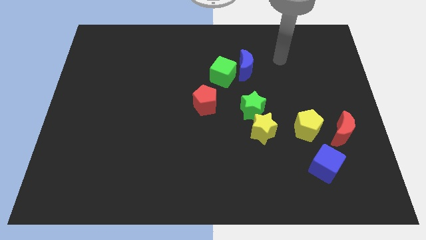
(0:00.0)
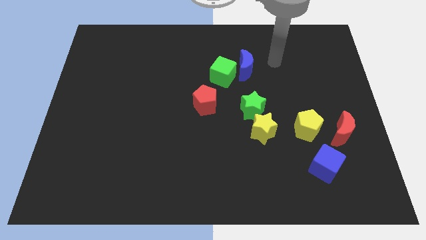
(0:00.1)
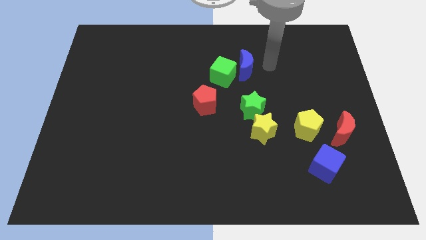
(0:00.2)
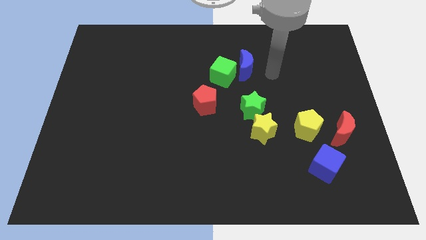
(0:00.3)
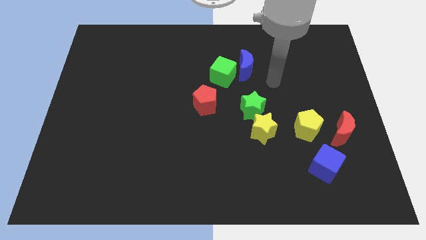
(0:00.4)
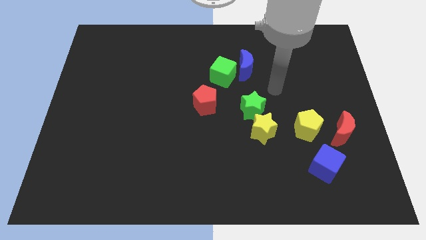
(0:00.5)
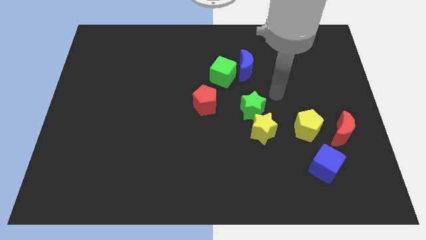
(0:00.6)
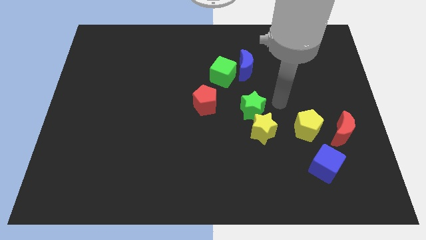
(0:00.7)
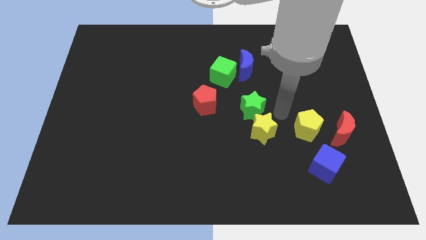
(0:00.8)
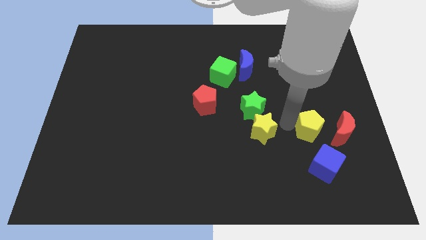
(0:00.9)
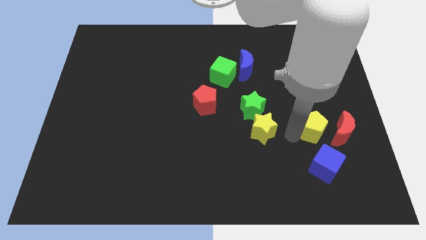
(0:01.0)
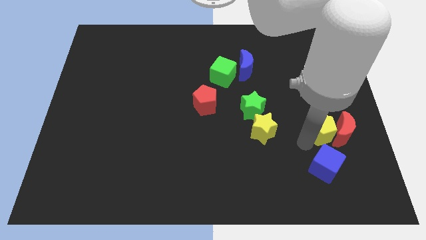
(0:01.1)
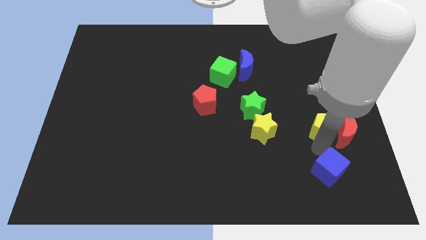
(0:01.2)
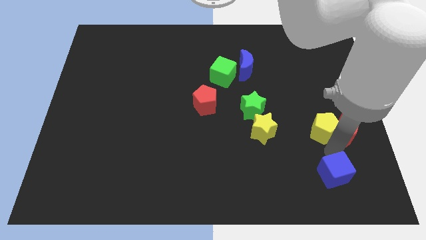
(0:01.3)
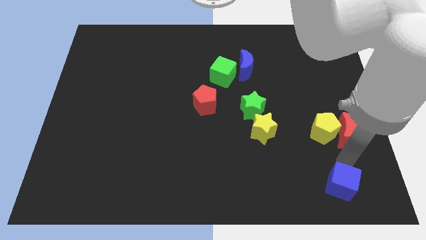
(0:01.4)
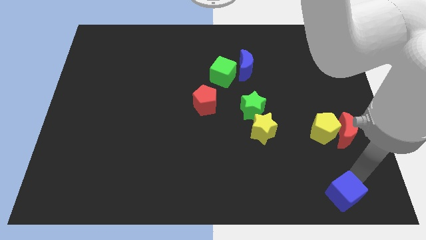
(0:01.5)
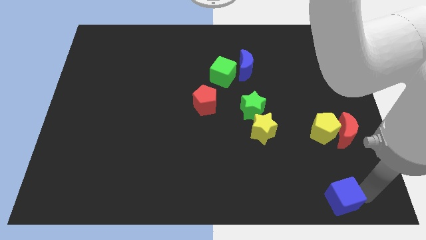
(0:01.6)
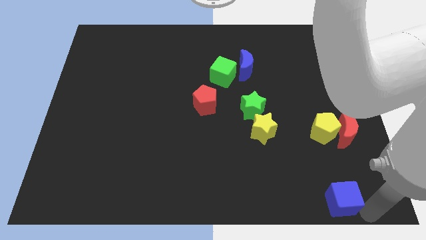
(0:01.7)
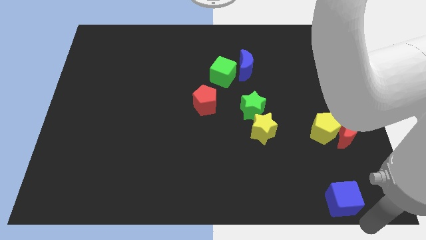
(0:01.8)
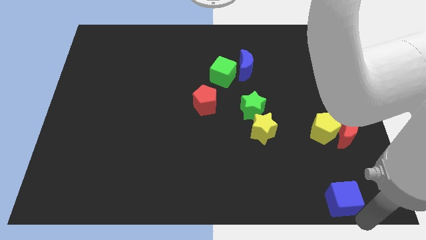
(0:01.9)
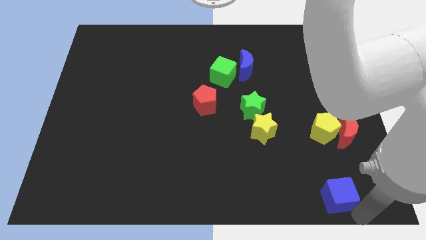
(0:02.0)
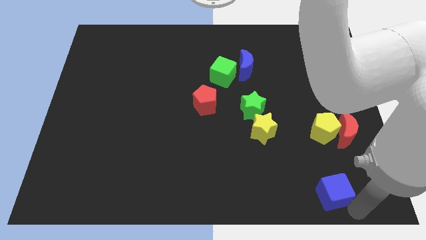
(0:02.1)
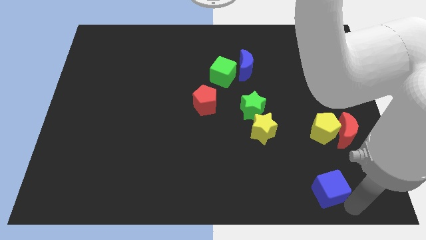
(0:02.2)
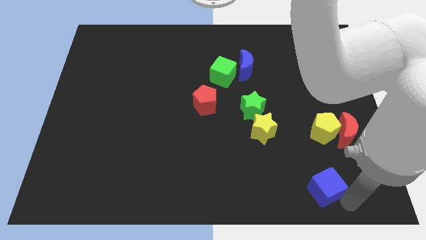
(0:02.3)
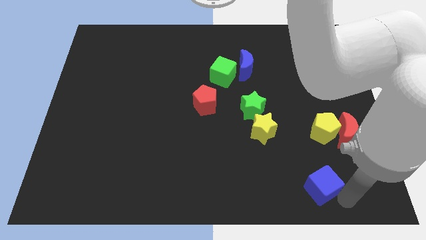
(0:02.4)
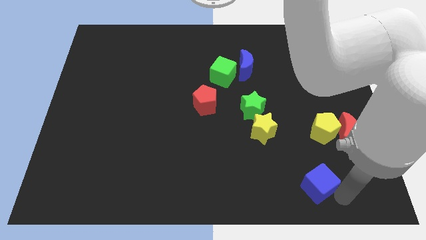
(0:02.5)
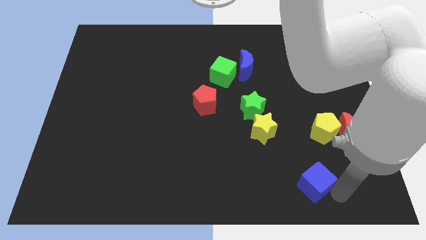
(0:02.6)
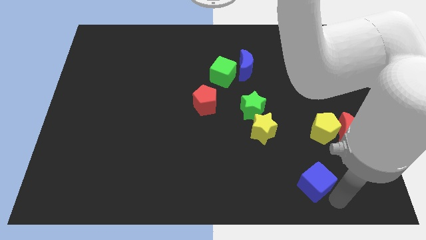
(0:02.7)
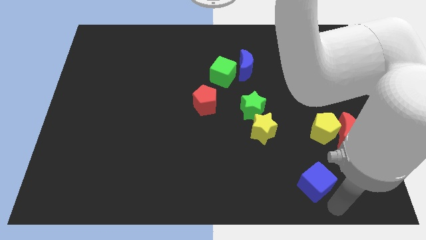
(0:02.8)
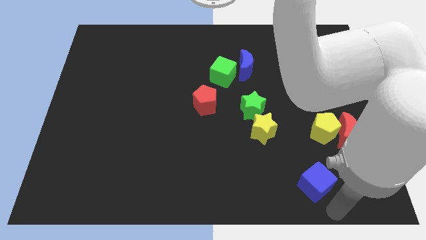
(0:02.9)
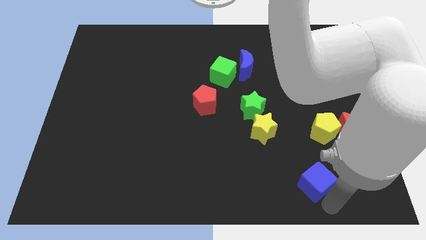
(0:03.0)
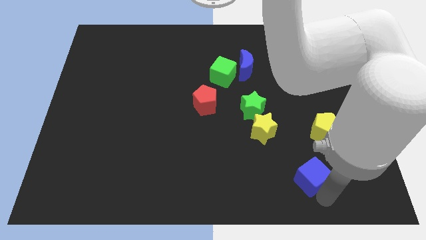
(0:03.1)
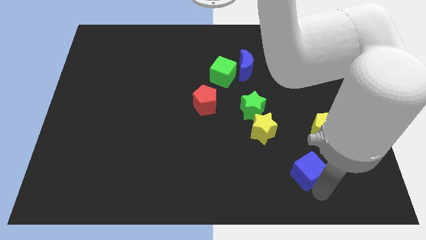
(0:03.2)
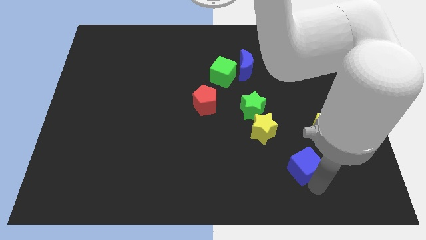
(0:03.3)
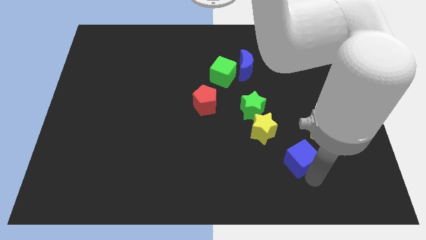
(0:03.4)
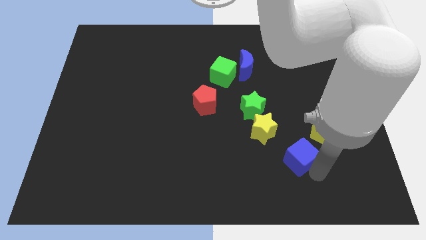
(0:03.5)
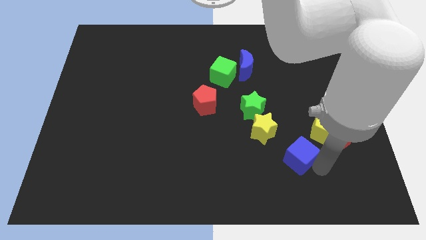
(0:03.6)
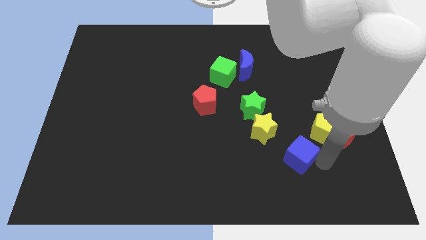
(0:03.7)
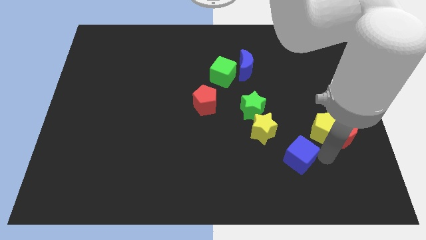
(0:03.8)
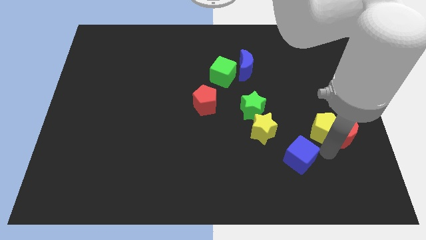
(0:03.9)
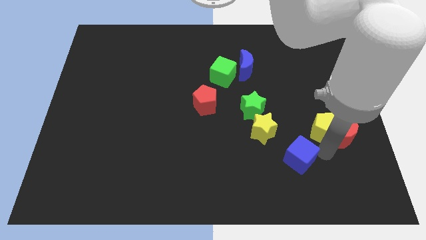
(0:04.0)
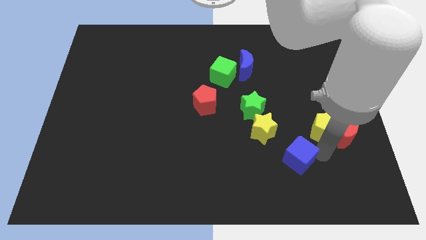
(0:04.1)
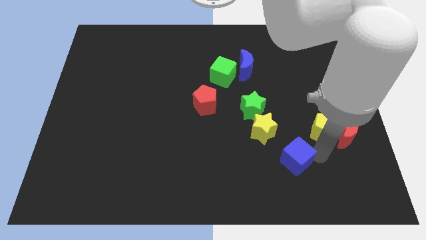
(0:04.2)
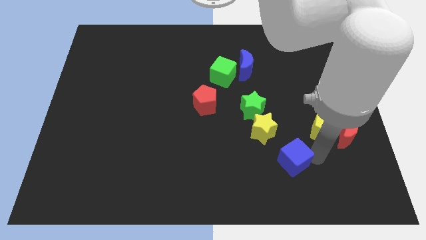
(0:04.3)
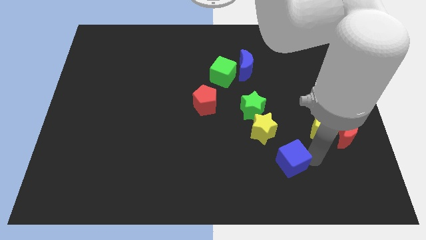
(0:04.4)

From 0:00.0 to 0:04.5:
move the blue cube a bit left

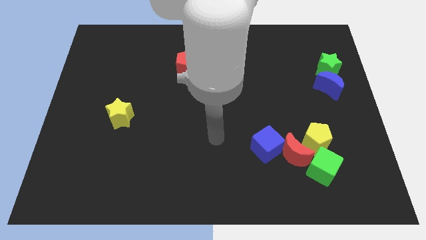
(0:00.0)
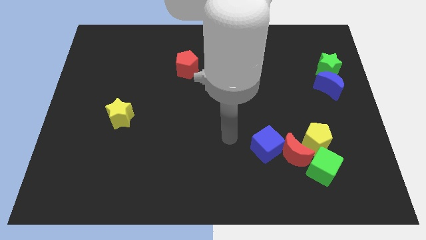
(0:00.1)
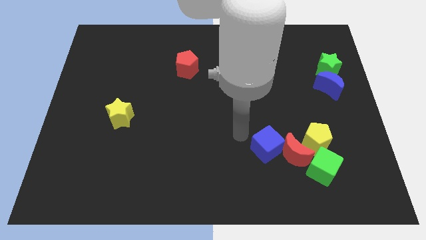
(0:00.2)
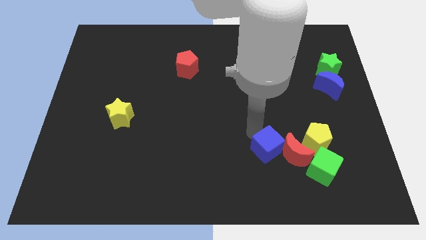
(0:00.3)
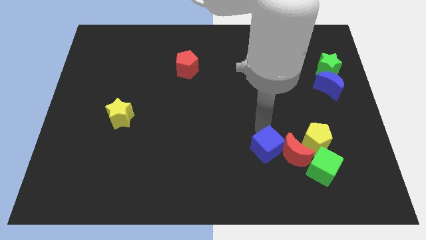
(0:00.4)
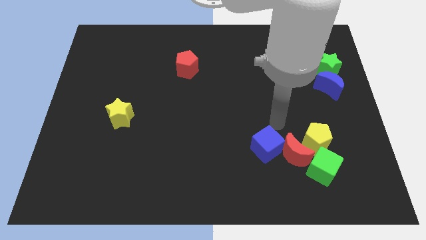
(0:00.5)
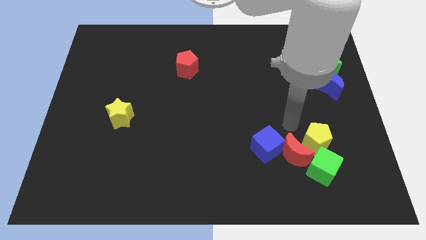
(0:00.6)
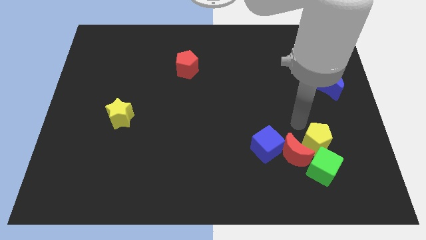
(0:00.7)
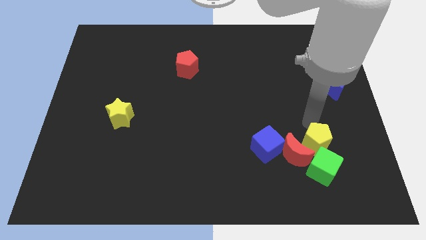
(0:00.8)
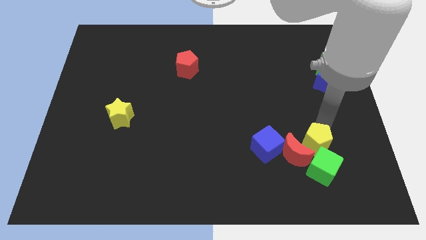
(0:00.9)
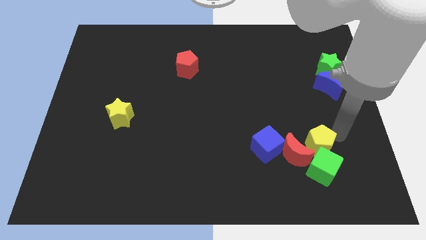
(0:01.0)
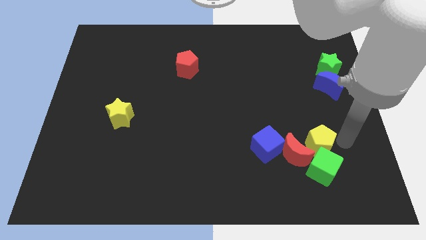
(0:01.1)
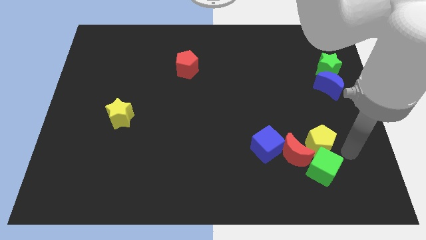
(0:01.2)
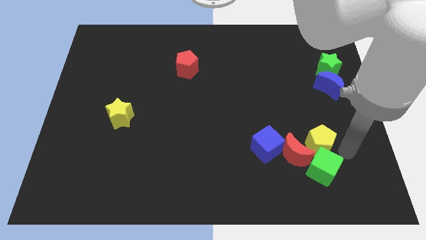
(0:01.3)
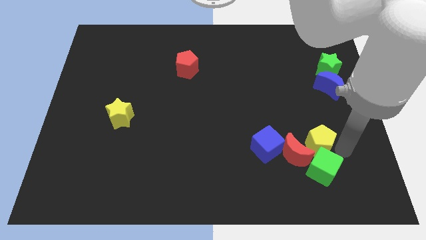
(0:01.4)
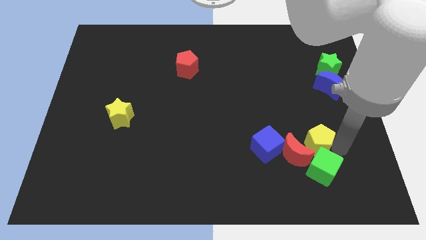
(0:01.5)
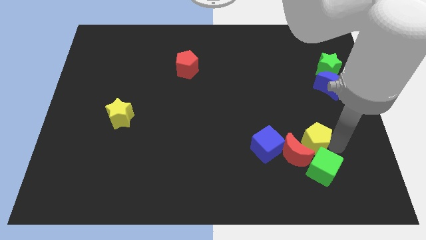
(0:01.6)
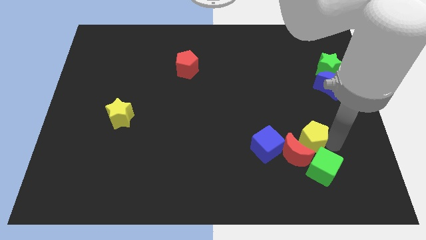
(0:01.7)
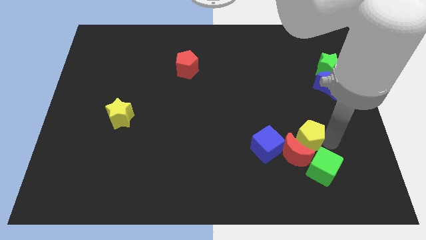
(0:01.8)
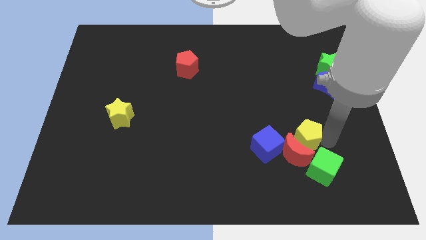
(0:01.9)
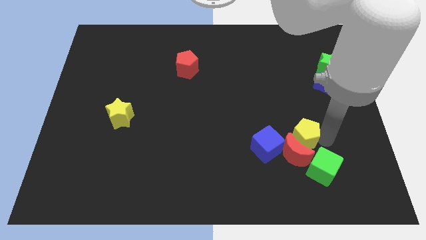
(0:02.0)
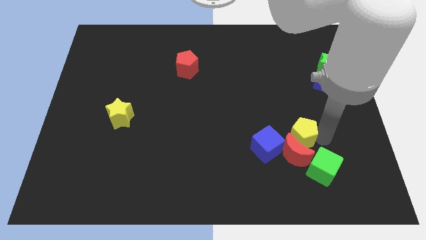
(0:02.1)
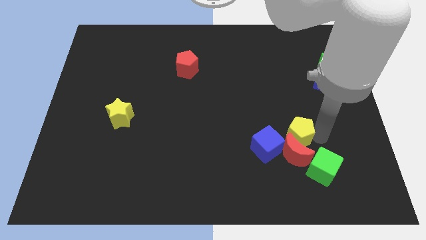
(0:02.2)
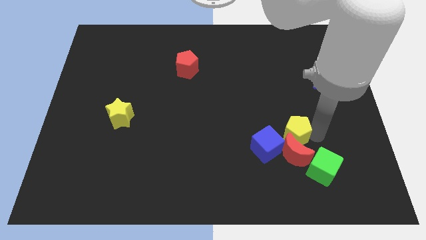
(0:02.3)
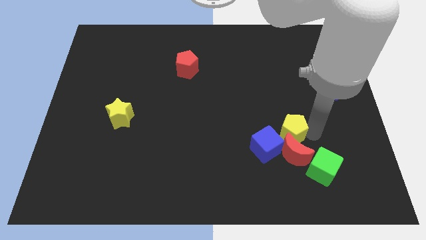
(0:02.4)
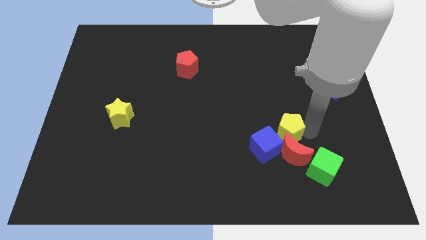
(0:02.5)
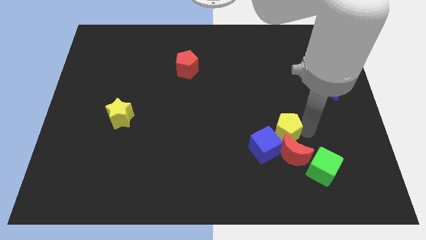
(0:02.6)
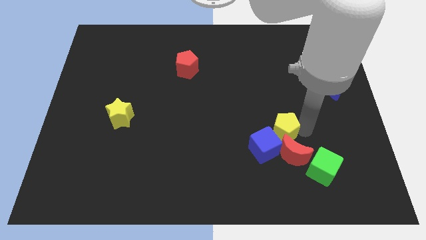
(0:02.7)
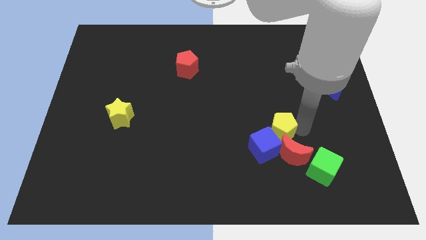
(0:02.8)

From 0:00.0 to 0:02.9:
slightly move the yellow pentagon left

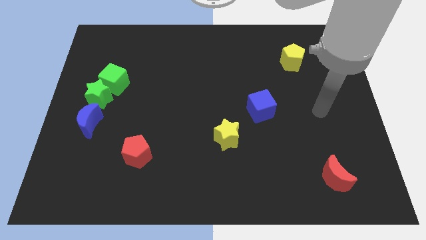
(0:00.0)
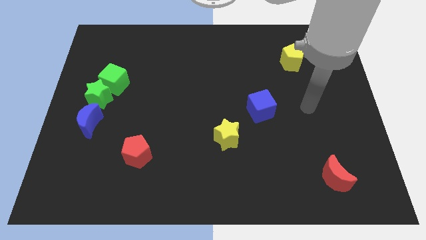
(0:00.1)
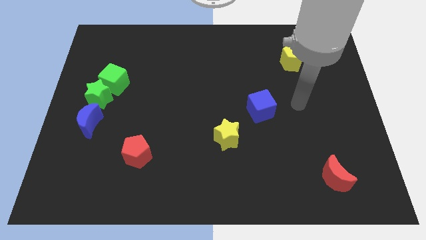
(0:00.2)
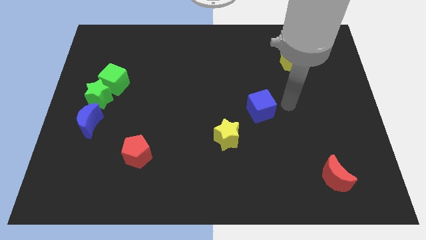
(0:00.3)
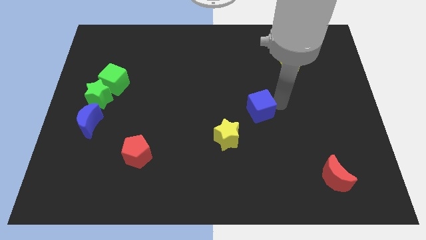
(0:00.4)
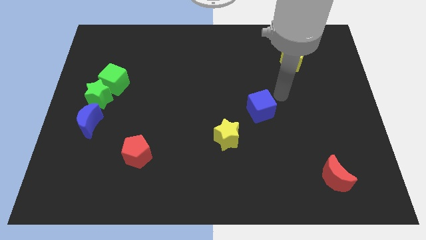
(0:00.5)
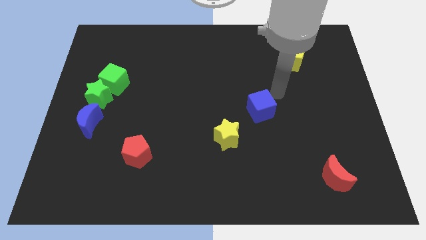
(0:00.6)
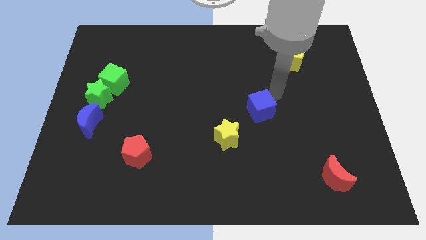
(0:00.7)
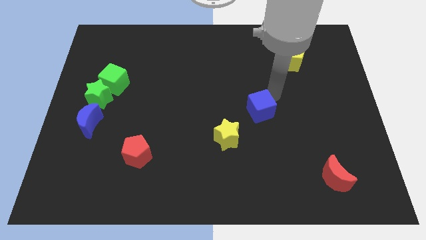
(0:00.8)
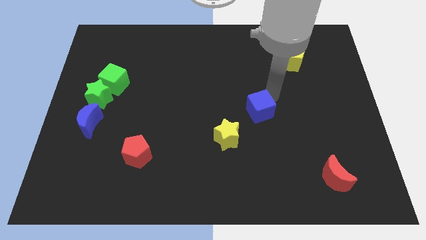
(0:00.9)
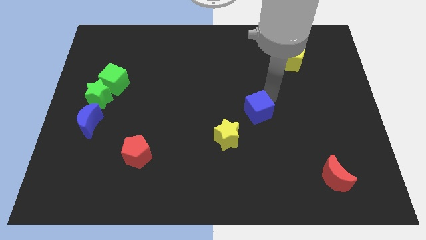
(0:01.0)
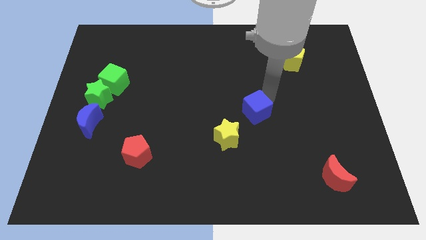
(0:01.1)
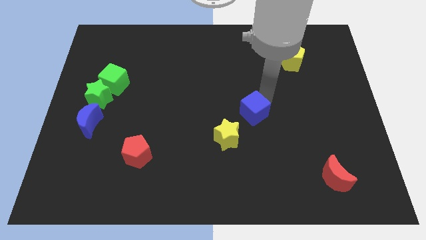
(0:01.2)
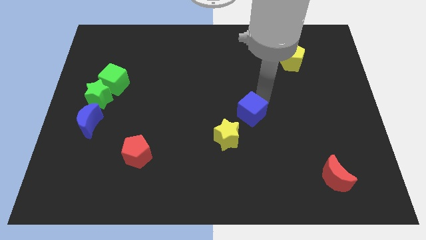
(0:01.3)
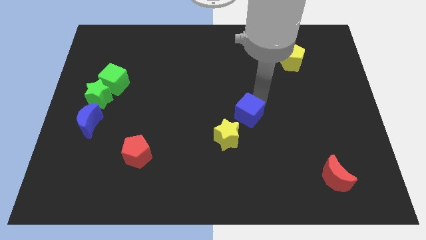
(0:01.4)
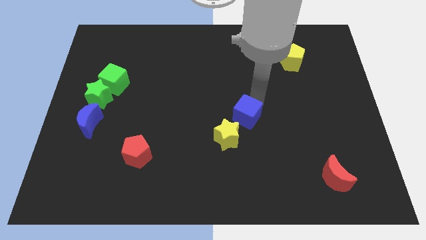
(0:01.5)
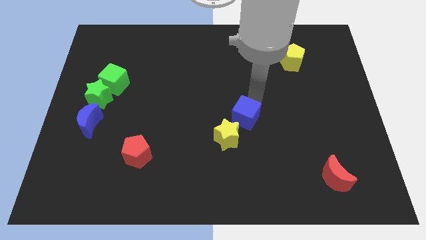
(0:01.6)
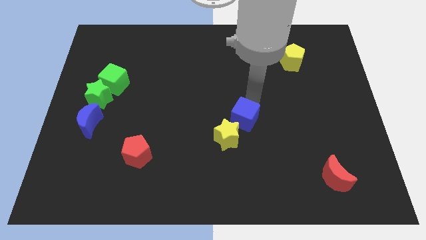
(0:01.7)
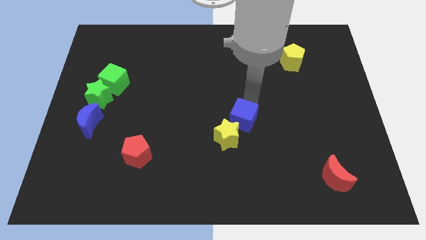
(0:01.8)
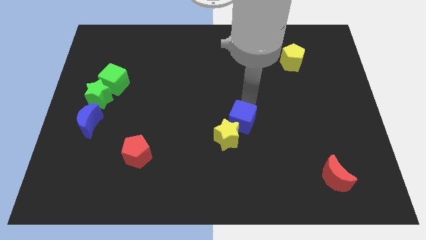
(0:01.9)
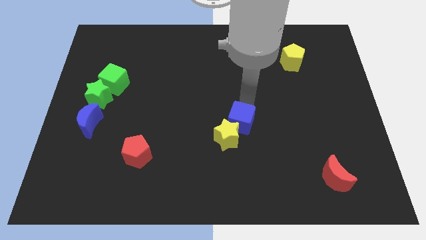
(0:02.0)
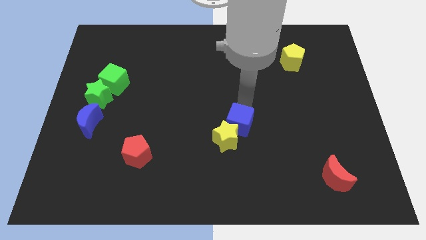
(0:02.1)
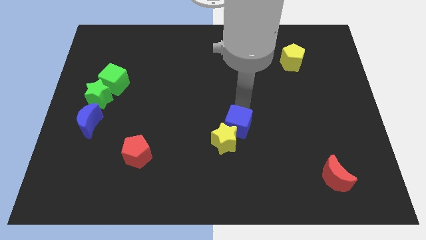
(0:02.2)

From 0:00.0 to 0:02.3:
slide the blue cube a little bit diagonally down and left
